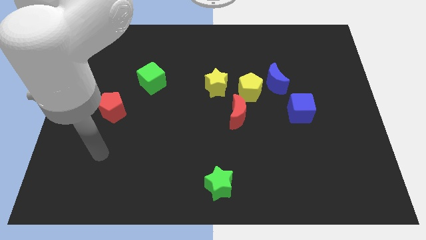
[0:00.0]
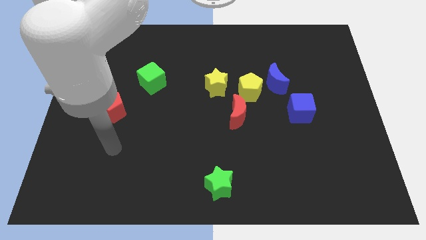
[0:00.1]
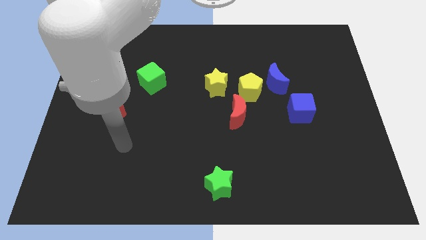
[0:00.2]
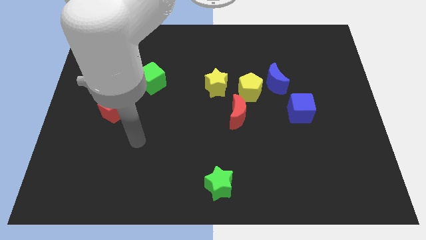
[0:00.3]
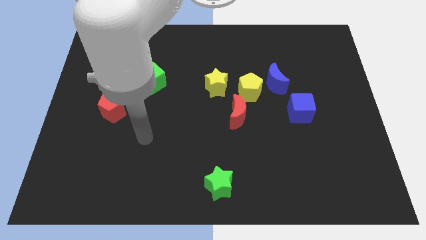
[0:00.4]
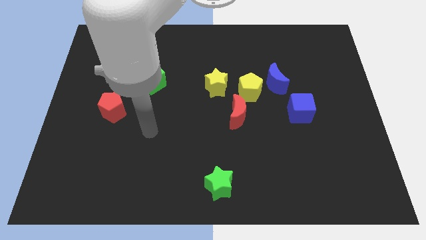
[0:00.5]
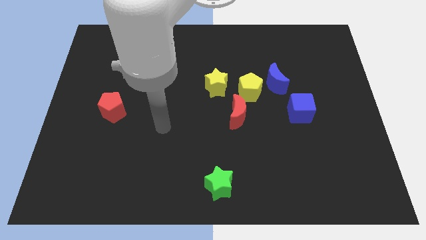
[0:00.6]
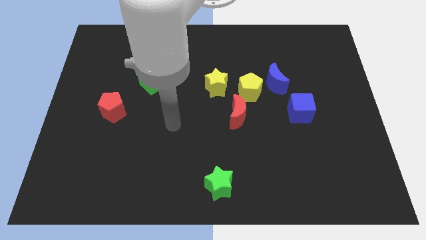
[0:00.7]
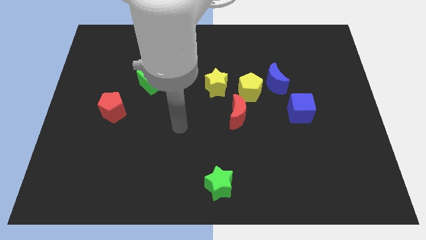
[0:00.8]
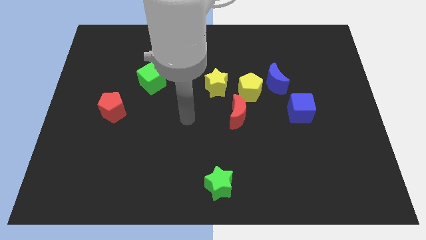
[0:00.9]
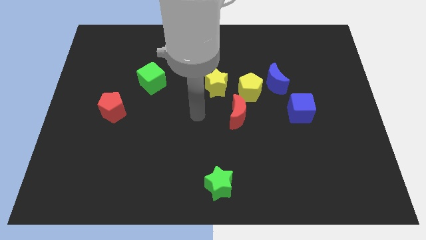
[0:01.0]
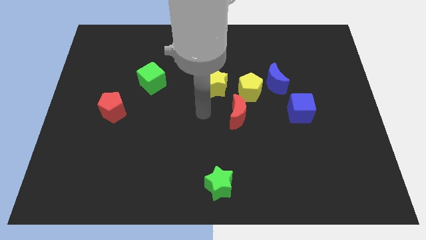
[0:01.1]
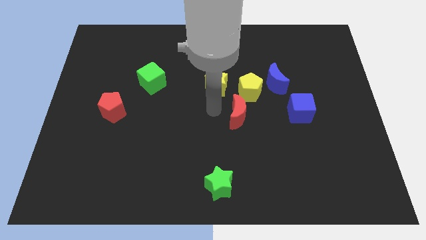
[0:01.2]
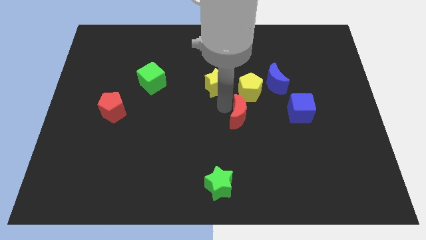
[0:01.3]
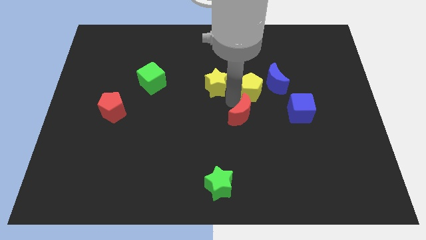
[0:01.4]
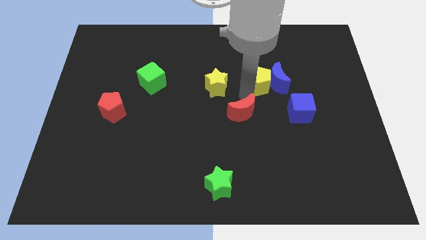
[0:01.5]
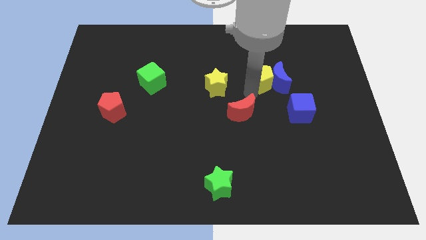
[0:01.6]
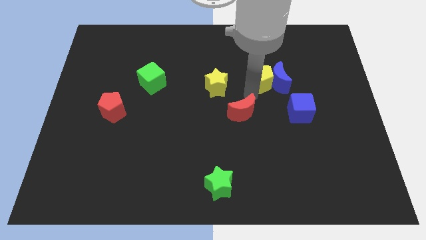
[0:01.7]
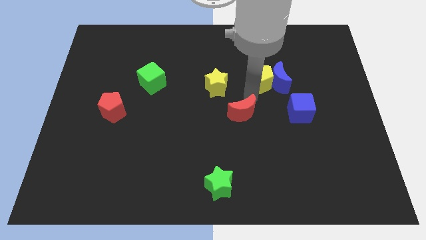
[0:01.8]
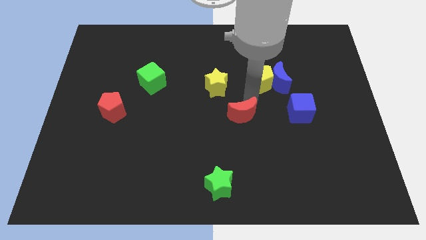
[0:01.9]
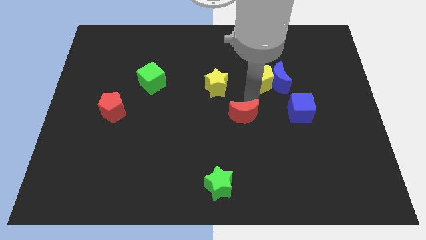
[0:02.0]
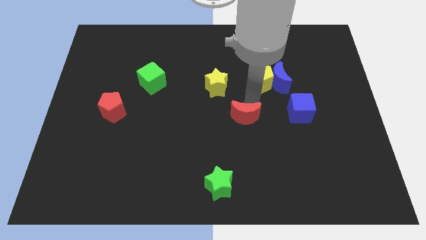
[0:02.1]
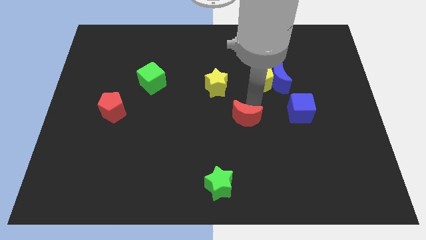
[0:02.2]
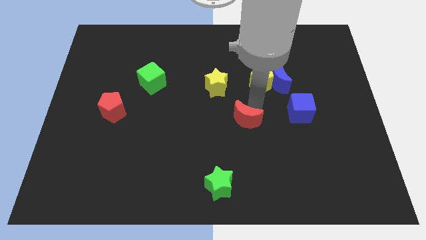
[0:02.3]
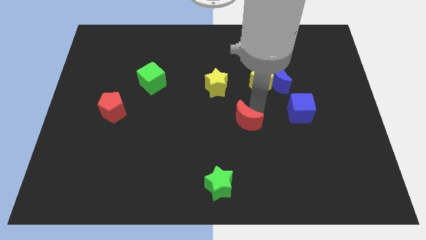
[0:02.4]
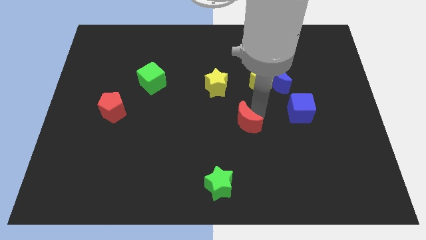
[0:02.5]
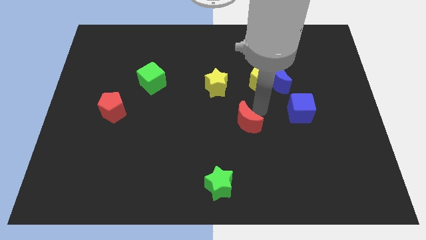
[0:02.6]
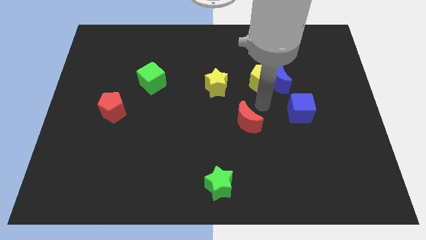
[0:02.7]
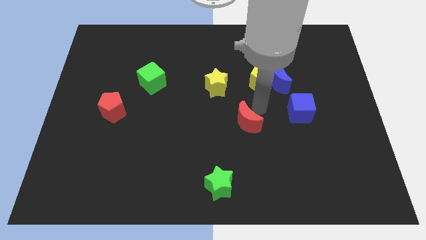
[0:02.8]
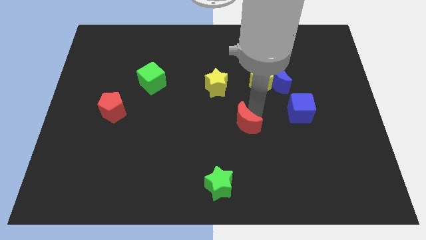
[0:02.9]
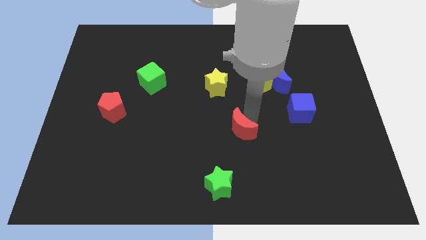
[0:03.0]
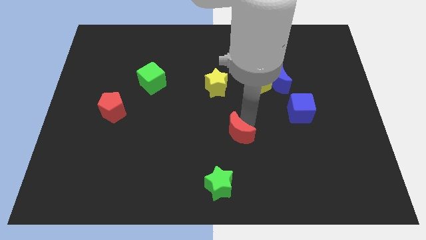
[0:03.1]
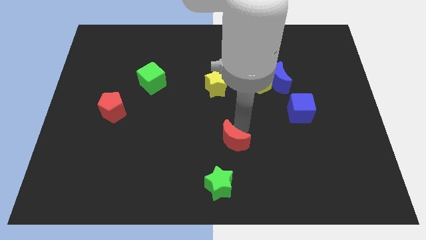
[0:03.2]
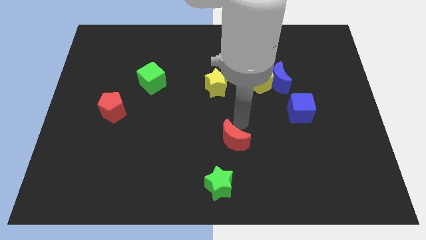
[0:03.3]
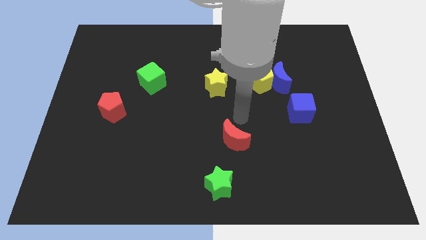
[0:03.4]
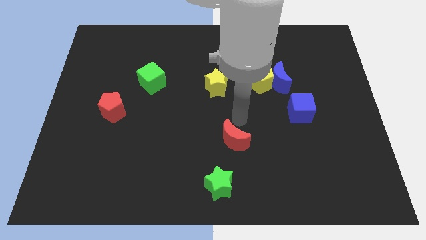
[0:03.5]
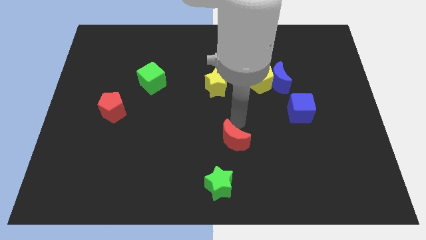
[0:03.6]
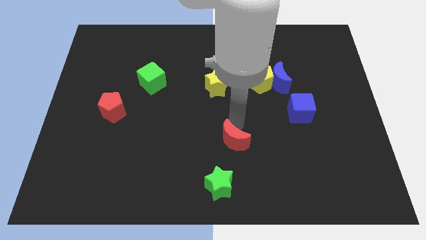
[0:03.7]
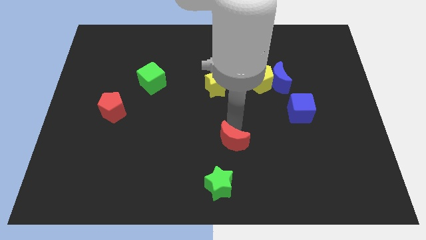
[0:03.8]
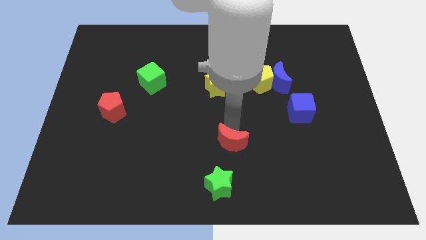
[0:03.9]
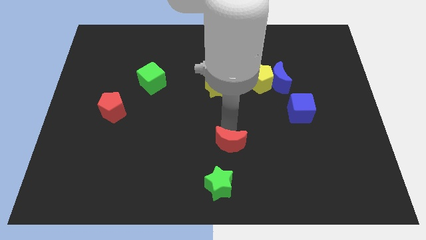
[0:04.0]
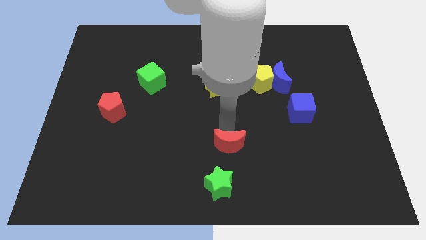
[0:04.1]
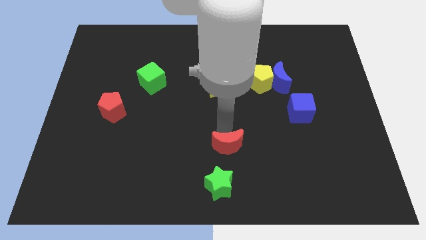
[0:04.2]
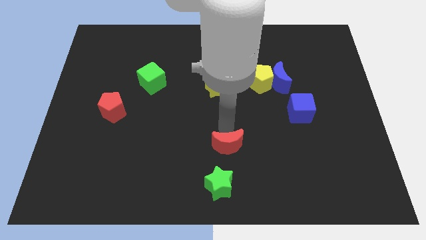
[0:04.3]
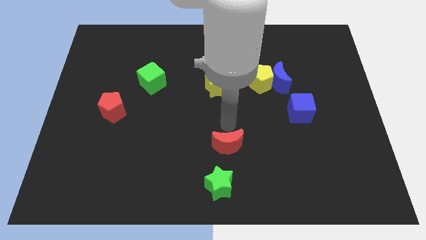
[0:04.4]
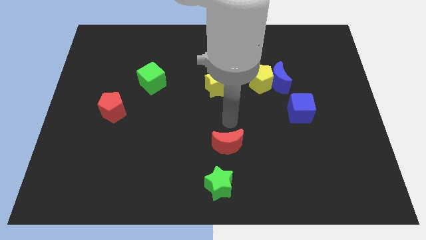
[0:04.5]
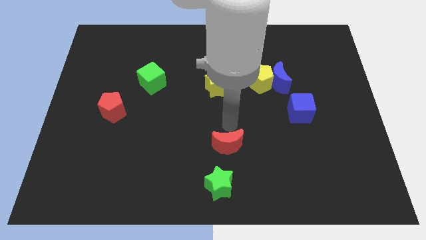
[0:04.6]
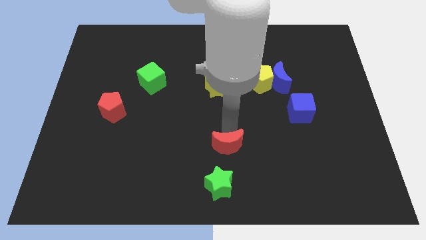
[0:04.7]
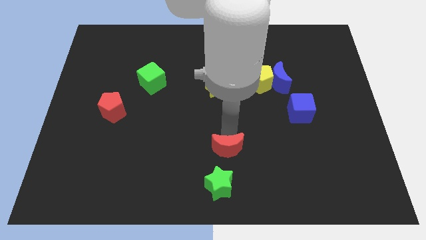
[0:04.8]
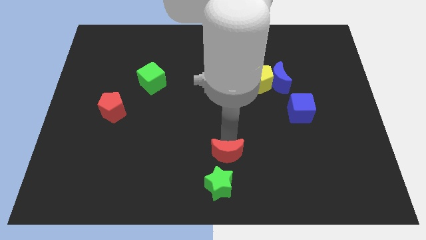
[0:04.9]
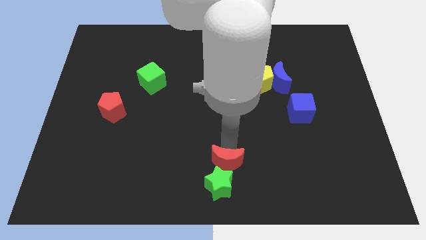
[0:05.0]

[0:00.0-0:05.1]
move the red moon to the green star

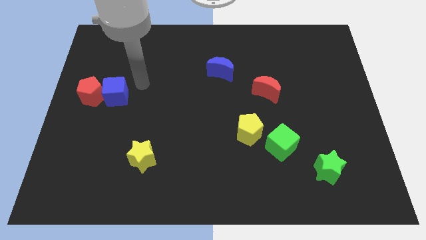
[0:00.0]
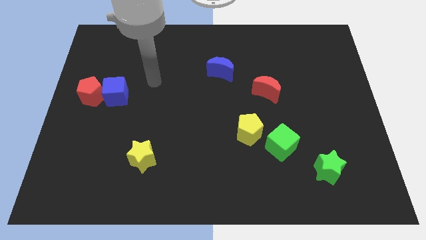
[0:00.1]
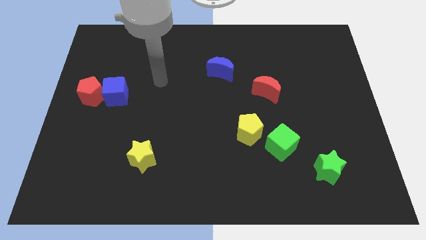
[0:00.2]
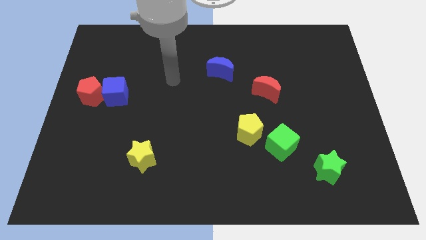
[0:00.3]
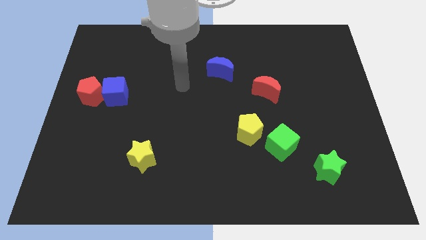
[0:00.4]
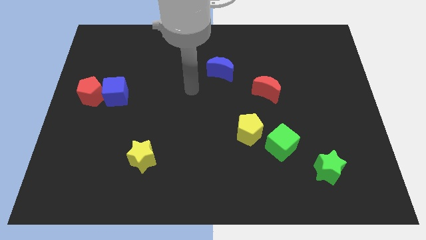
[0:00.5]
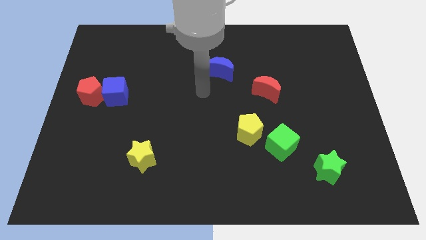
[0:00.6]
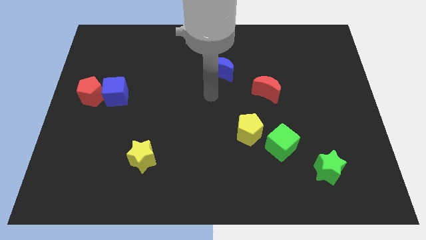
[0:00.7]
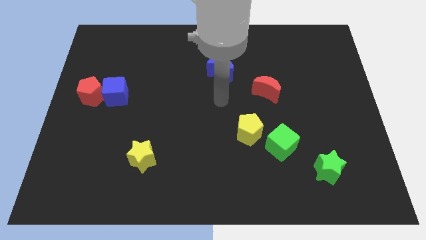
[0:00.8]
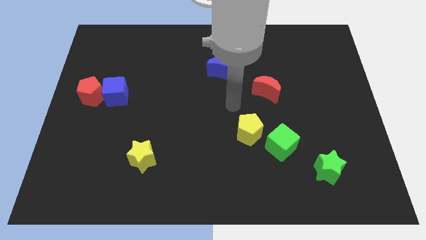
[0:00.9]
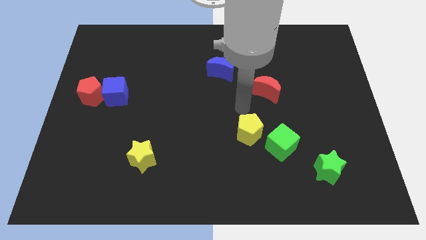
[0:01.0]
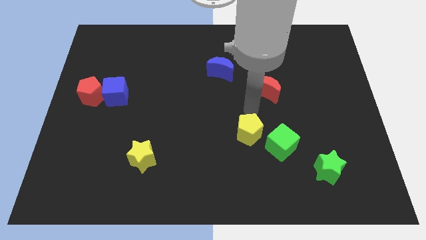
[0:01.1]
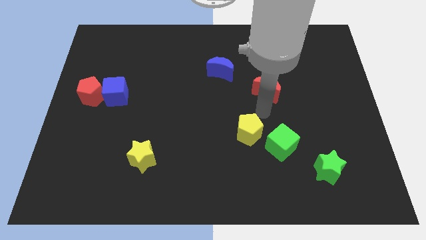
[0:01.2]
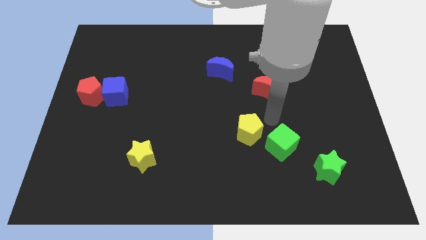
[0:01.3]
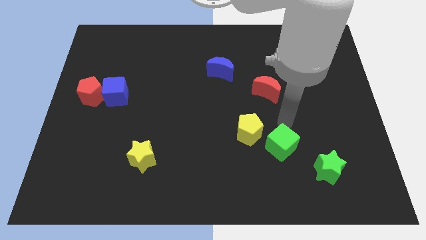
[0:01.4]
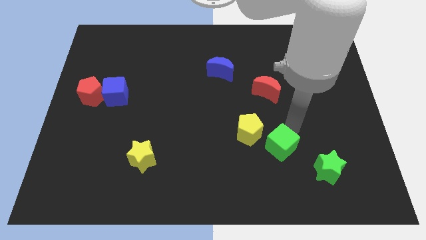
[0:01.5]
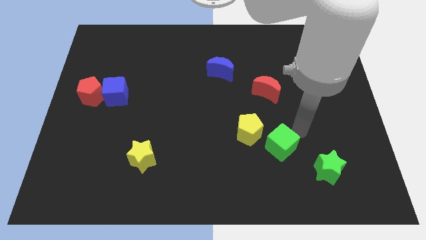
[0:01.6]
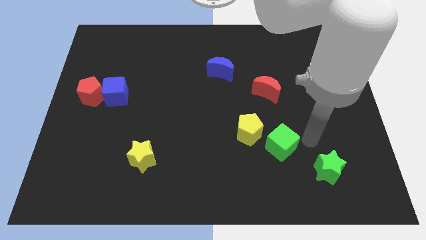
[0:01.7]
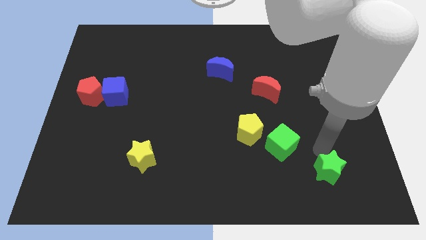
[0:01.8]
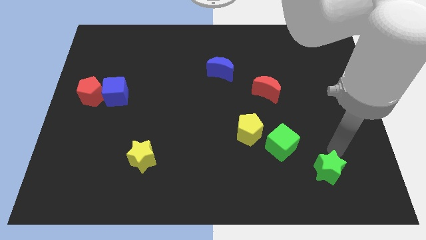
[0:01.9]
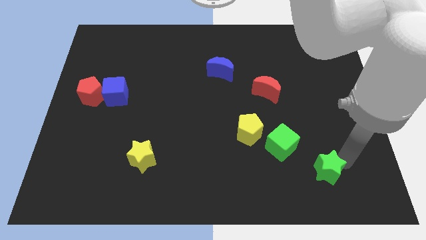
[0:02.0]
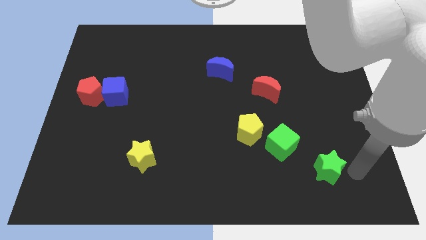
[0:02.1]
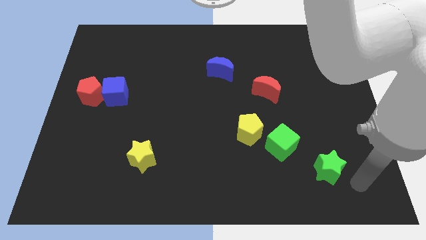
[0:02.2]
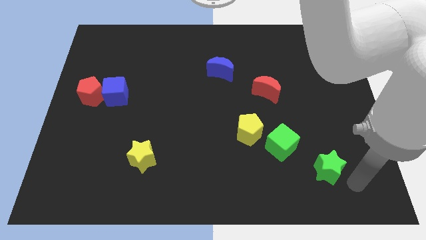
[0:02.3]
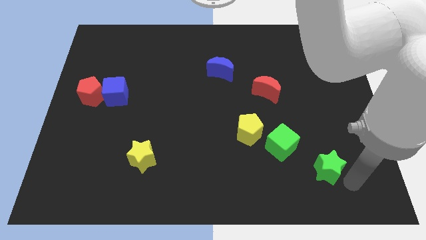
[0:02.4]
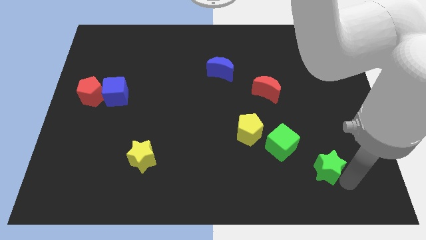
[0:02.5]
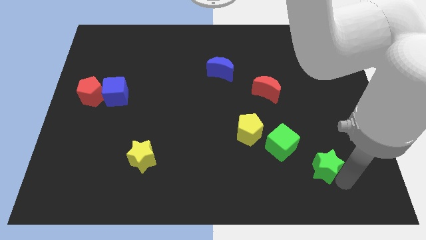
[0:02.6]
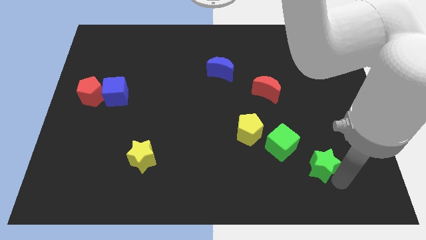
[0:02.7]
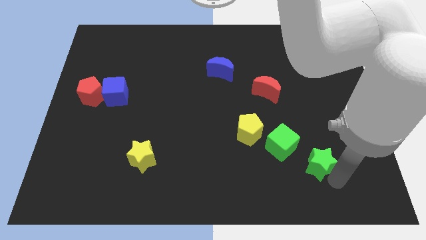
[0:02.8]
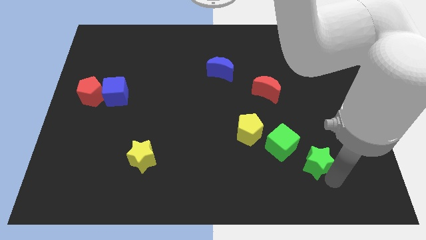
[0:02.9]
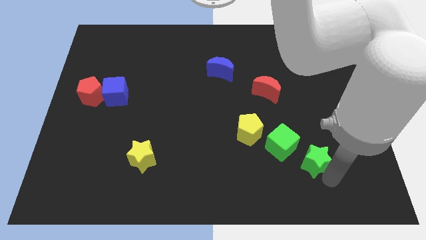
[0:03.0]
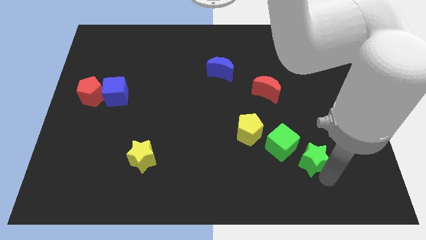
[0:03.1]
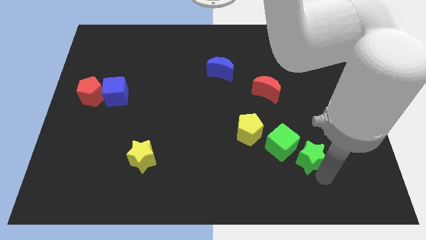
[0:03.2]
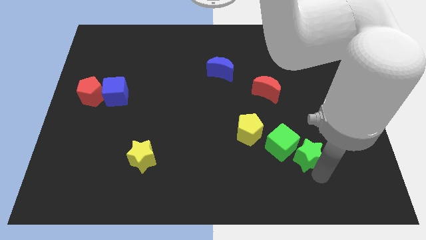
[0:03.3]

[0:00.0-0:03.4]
move the green star close to the green cube
